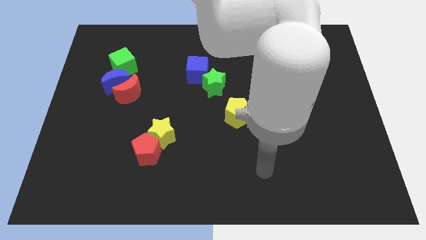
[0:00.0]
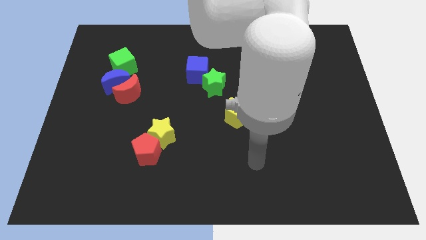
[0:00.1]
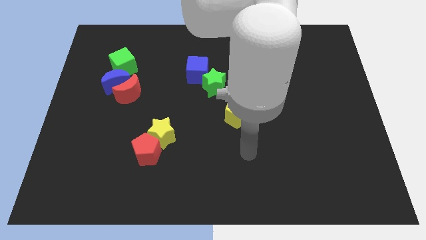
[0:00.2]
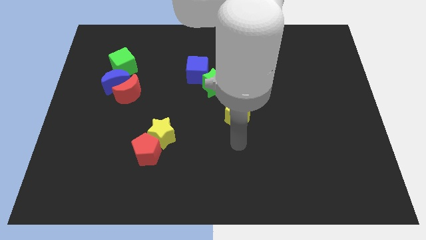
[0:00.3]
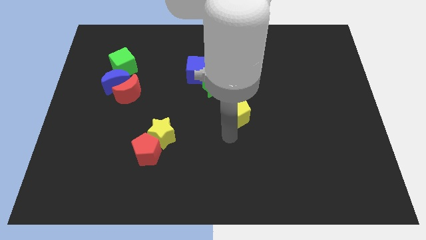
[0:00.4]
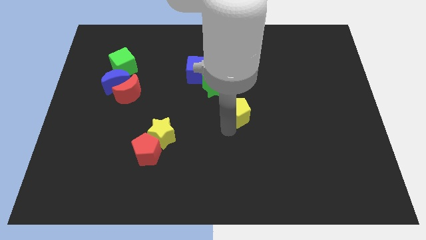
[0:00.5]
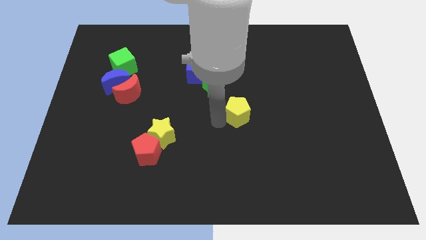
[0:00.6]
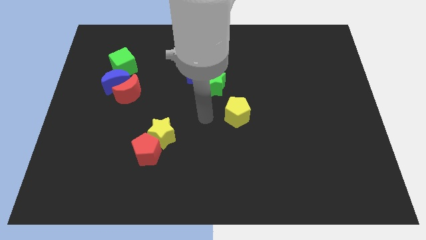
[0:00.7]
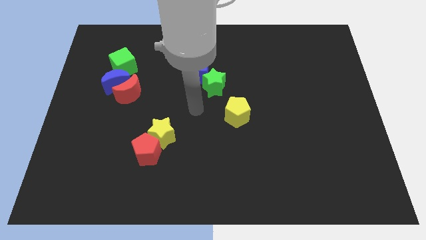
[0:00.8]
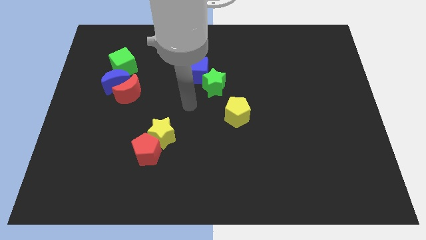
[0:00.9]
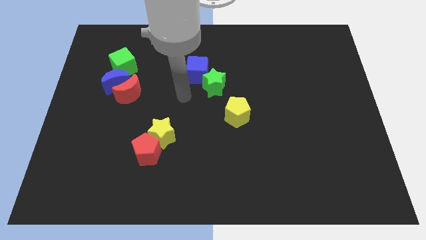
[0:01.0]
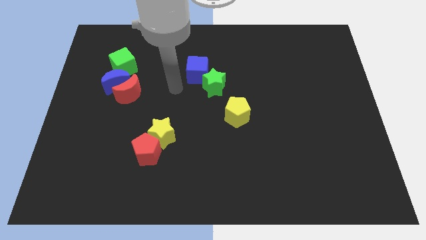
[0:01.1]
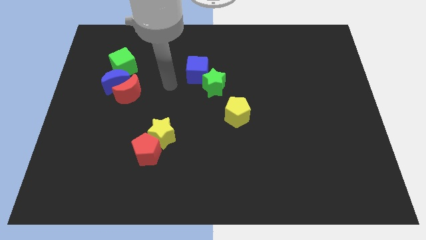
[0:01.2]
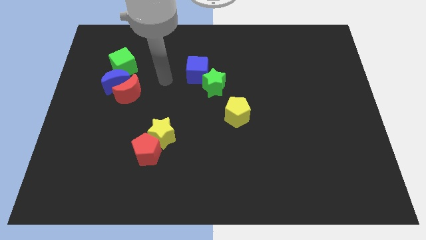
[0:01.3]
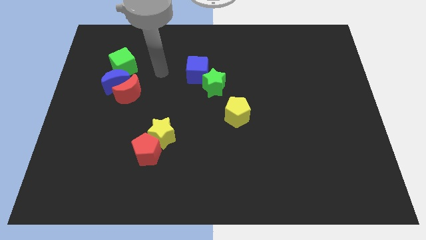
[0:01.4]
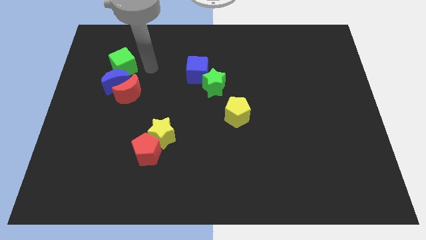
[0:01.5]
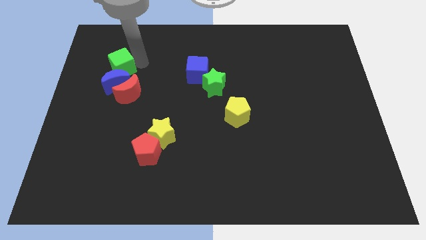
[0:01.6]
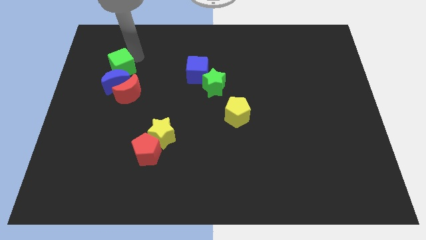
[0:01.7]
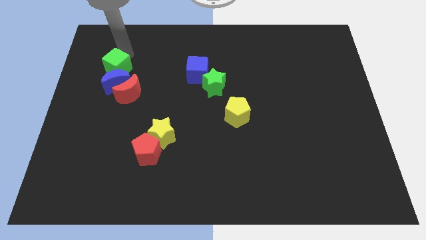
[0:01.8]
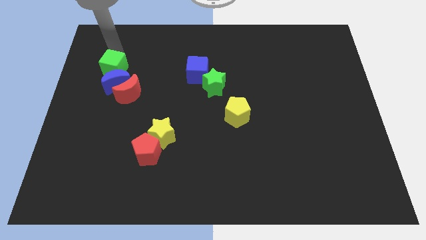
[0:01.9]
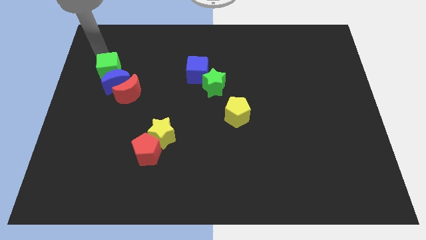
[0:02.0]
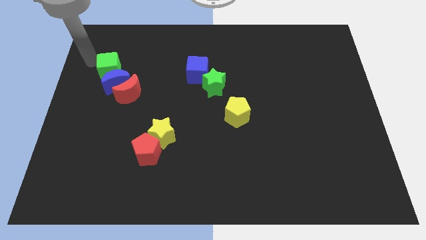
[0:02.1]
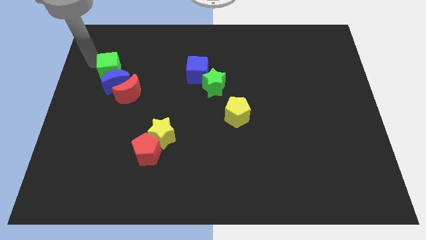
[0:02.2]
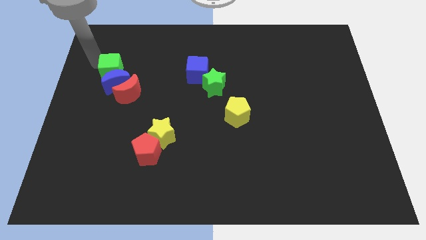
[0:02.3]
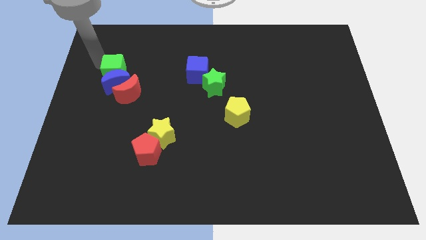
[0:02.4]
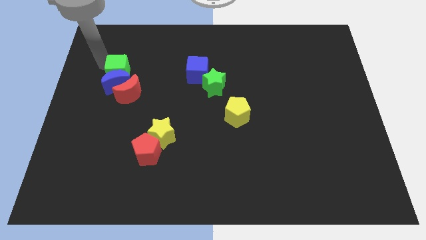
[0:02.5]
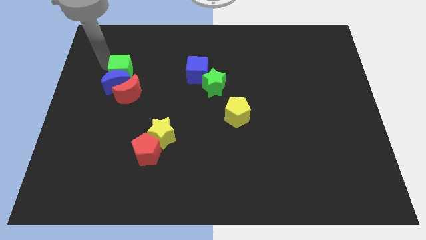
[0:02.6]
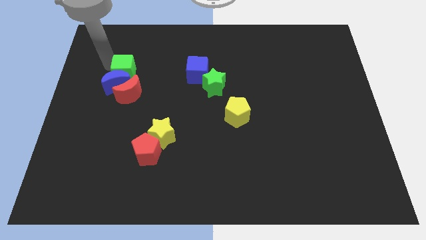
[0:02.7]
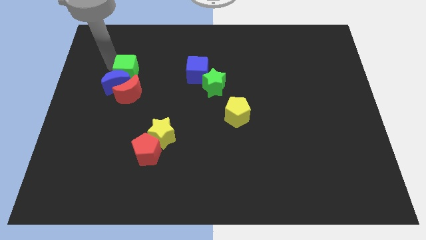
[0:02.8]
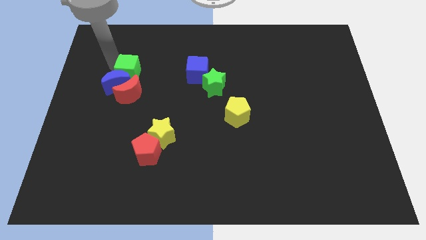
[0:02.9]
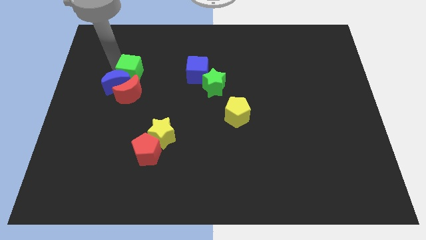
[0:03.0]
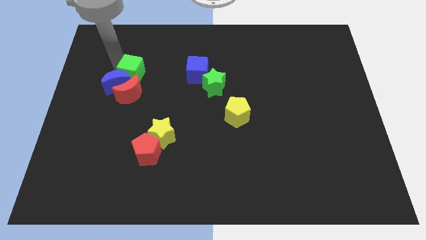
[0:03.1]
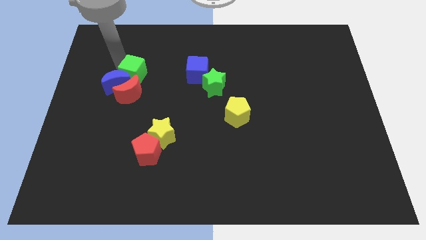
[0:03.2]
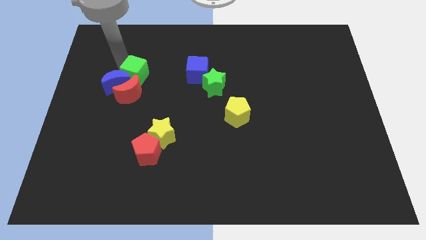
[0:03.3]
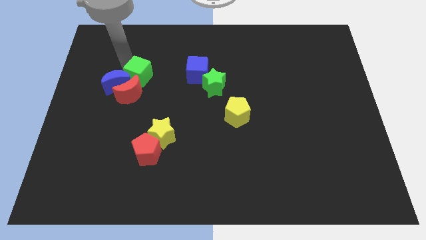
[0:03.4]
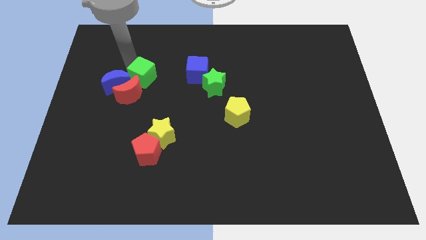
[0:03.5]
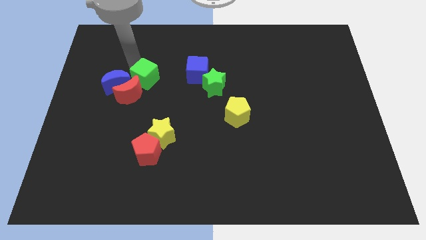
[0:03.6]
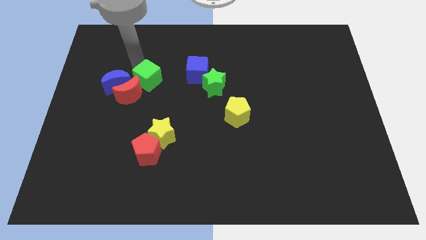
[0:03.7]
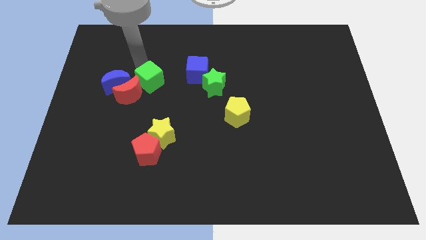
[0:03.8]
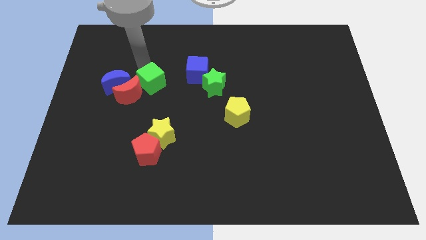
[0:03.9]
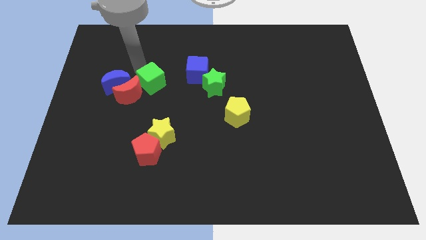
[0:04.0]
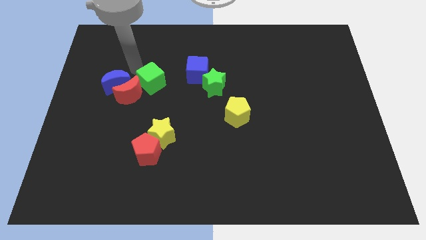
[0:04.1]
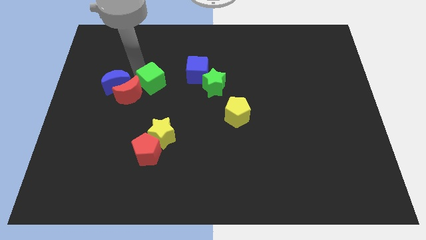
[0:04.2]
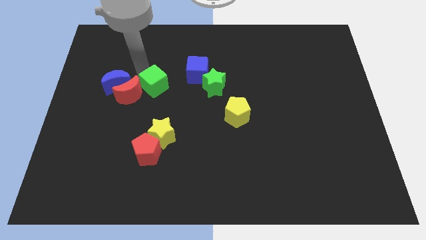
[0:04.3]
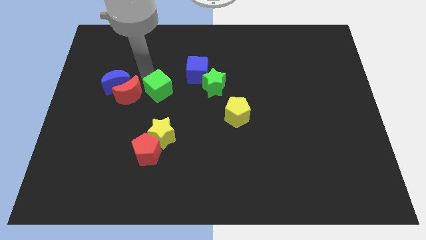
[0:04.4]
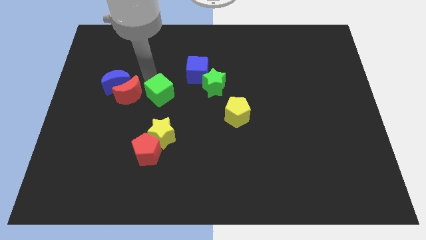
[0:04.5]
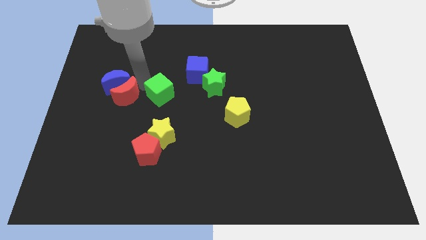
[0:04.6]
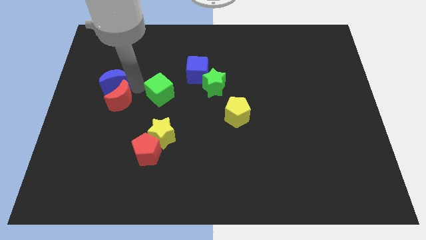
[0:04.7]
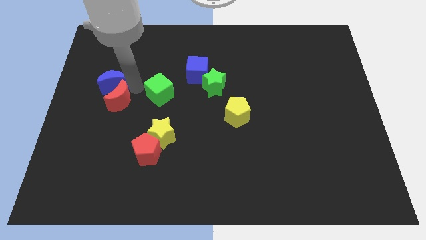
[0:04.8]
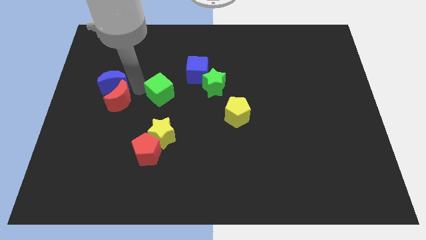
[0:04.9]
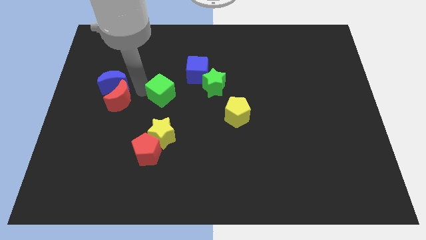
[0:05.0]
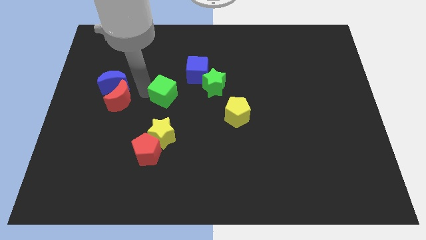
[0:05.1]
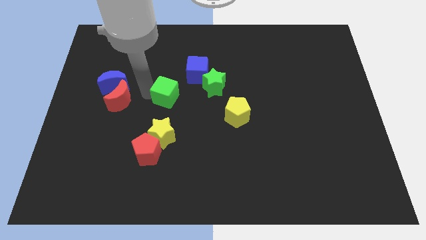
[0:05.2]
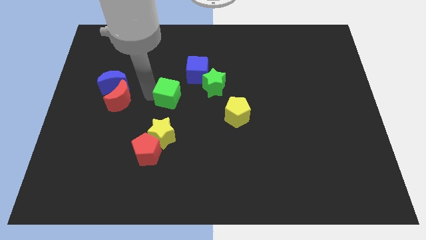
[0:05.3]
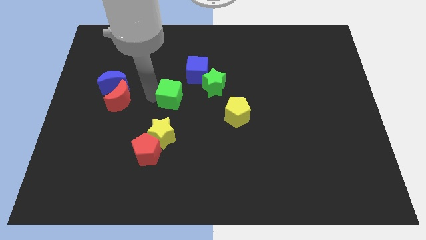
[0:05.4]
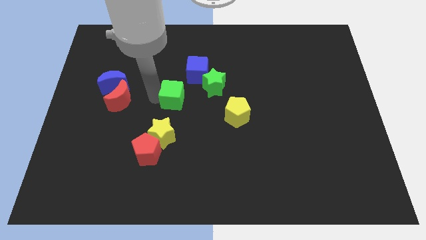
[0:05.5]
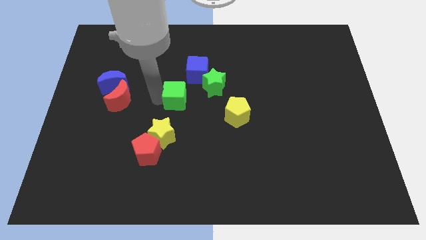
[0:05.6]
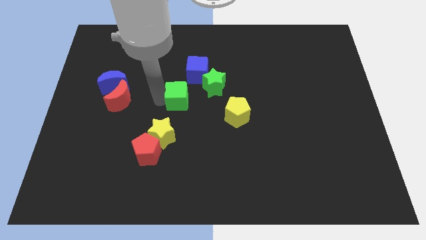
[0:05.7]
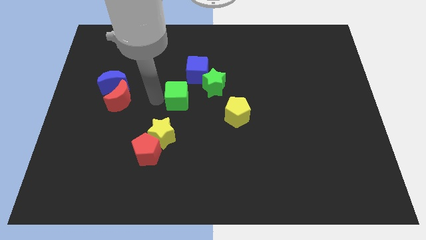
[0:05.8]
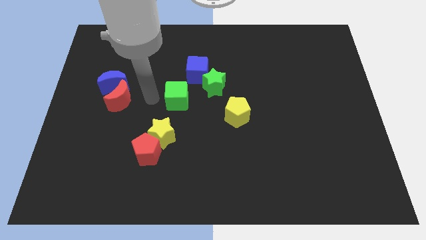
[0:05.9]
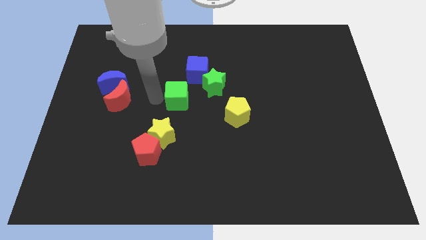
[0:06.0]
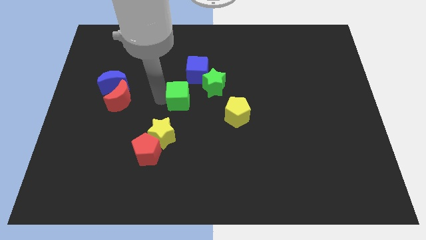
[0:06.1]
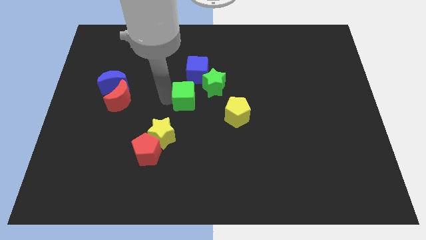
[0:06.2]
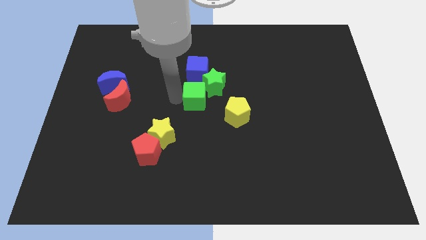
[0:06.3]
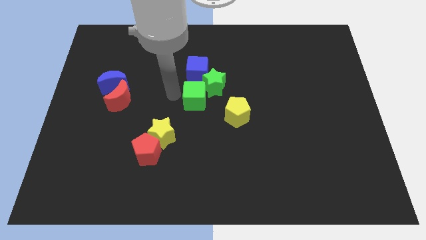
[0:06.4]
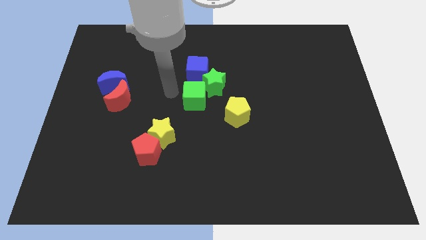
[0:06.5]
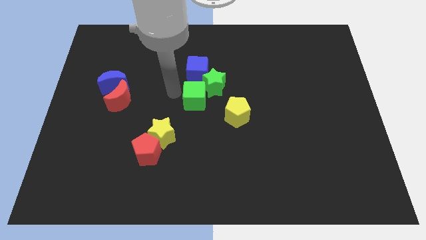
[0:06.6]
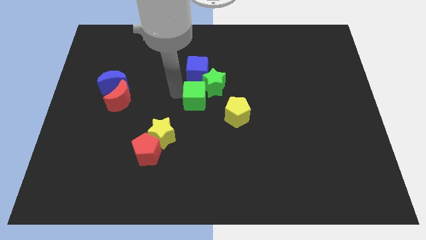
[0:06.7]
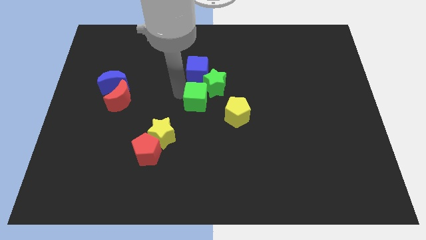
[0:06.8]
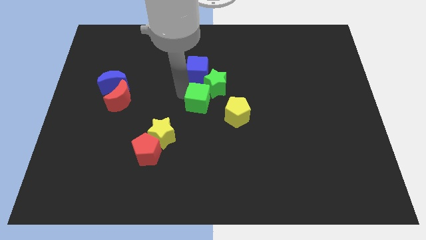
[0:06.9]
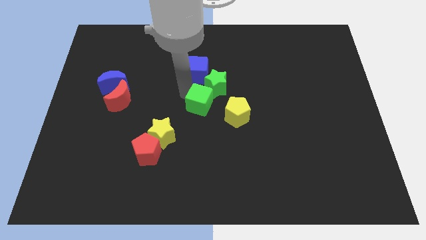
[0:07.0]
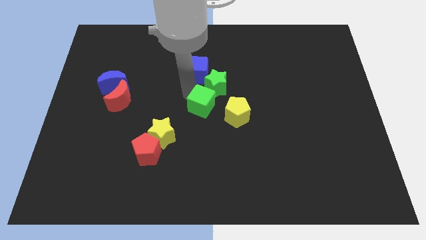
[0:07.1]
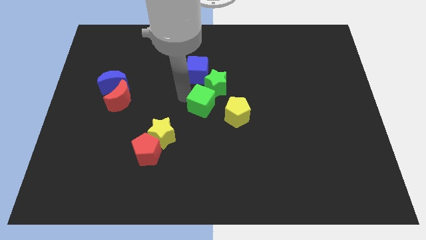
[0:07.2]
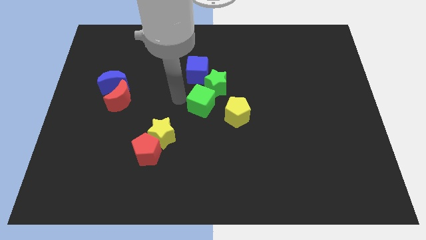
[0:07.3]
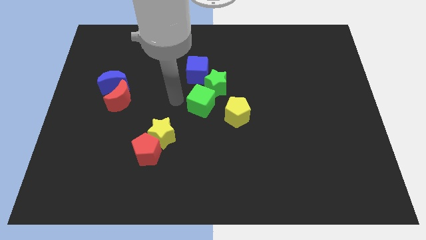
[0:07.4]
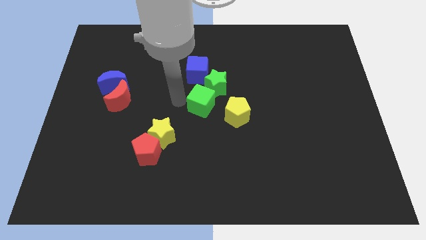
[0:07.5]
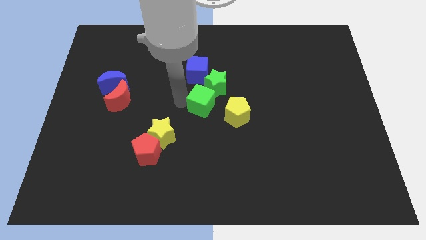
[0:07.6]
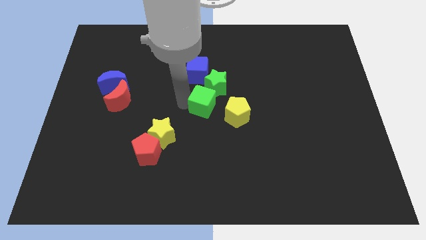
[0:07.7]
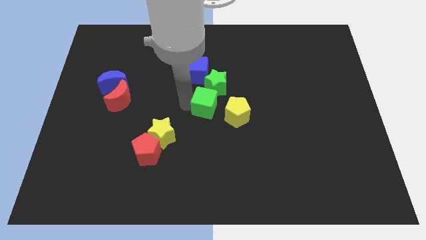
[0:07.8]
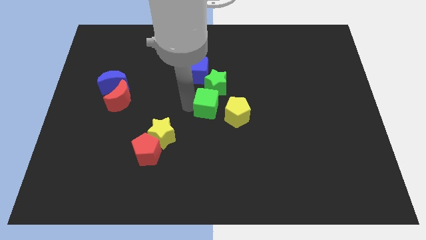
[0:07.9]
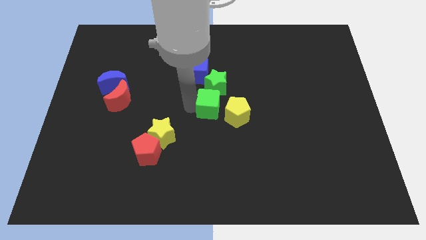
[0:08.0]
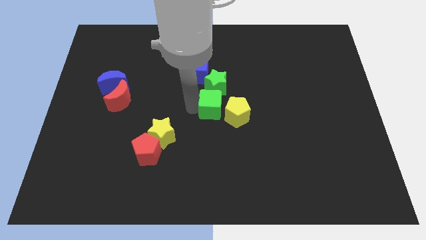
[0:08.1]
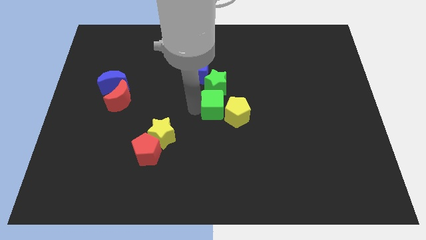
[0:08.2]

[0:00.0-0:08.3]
put the green cube next to the yellow pentagon

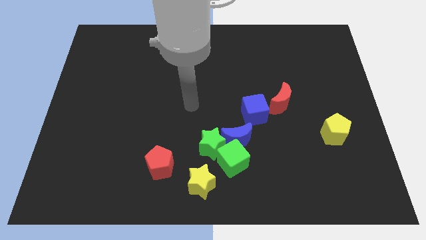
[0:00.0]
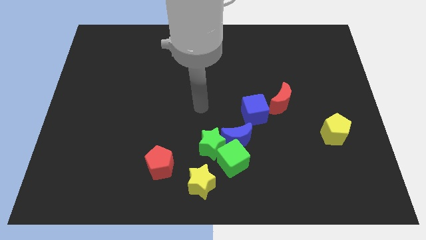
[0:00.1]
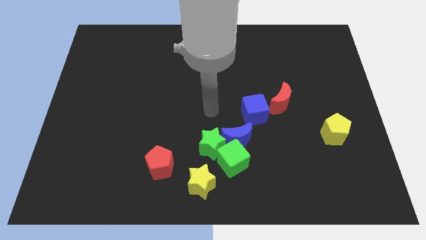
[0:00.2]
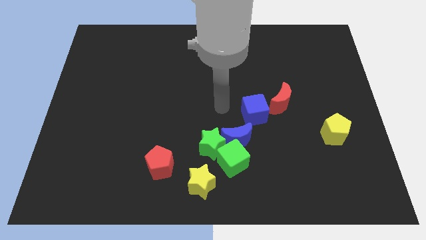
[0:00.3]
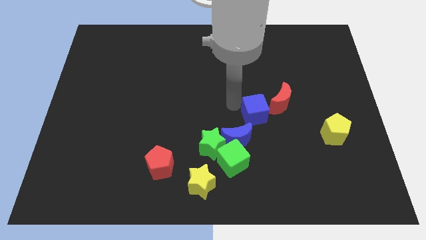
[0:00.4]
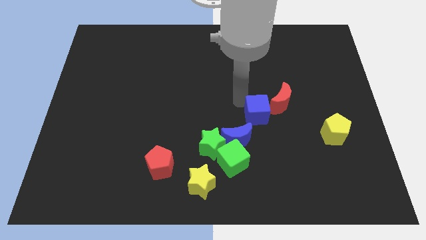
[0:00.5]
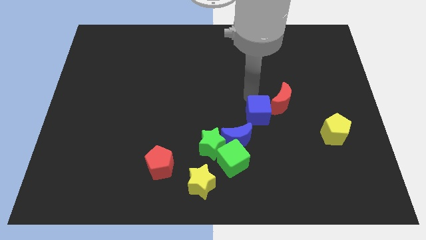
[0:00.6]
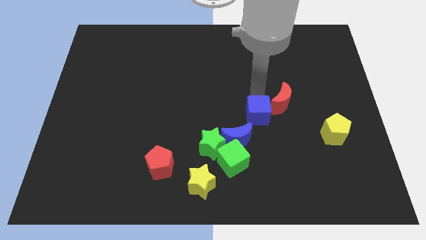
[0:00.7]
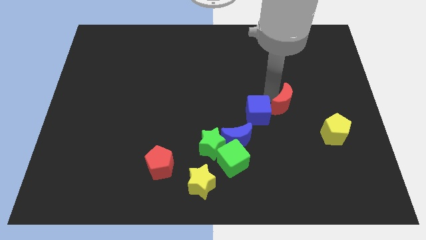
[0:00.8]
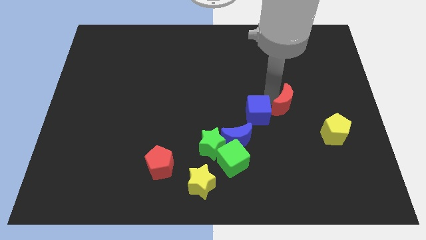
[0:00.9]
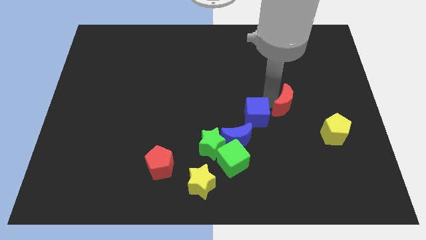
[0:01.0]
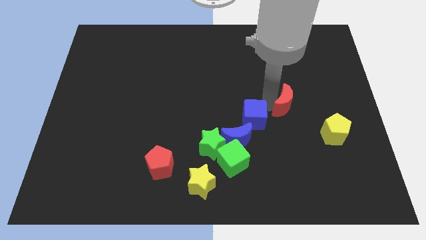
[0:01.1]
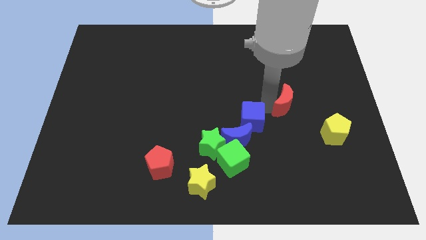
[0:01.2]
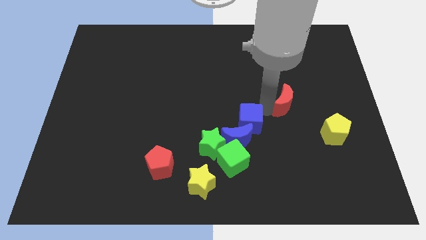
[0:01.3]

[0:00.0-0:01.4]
put the blue cube close to the blue moon
